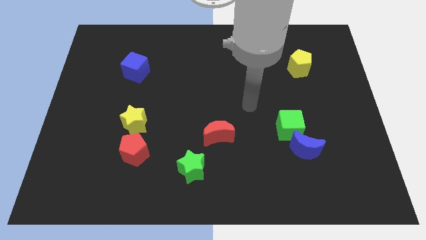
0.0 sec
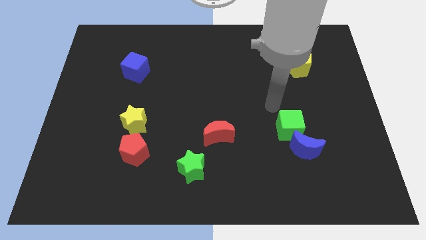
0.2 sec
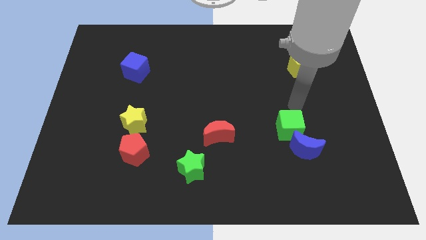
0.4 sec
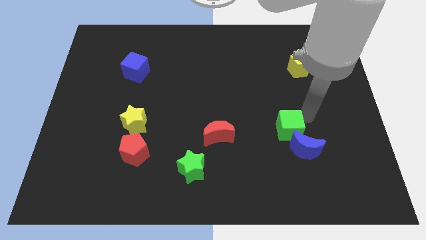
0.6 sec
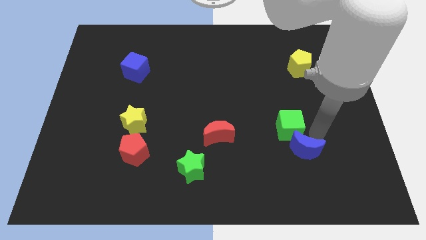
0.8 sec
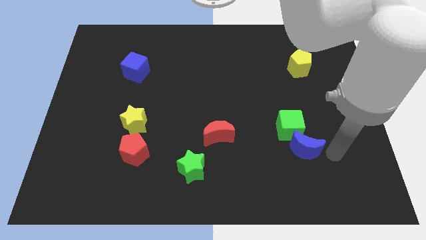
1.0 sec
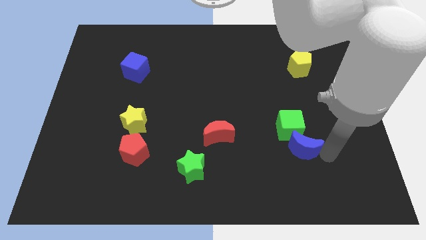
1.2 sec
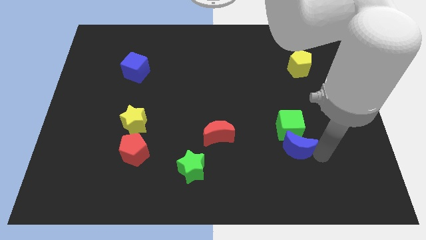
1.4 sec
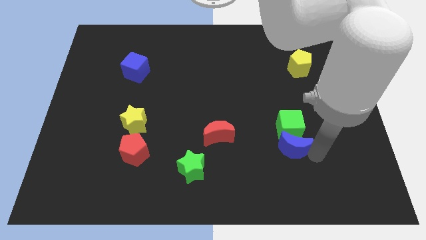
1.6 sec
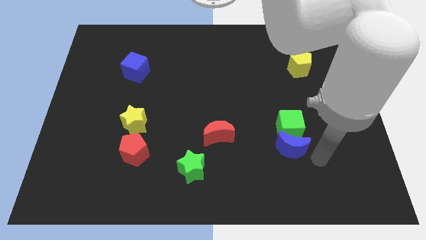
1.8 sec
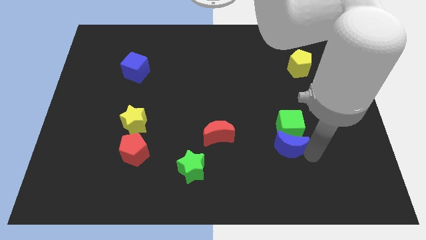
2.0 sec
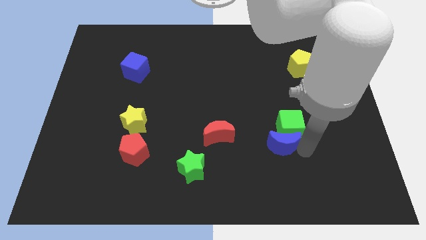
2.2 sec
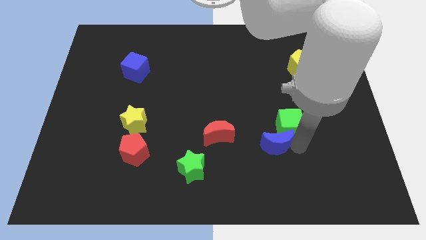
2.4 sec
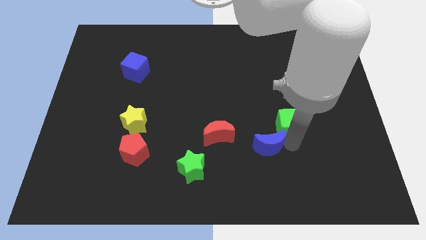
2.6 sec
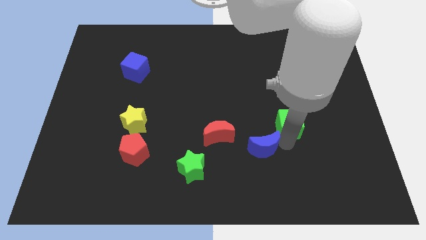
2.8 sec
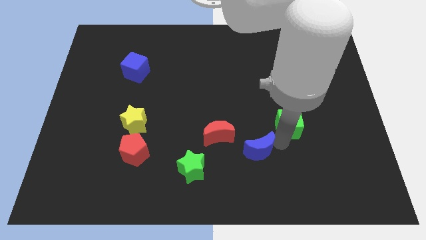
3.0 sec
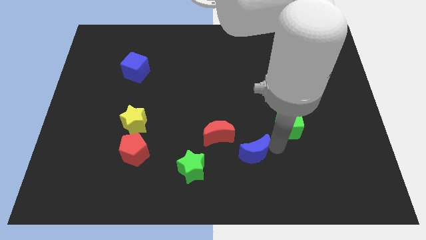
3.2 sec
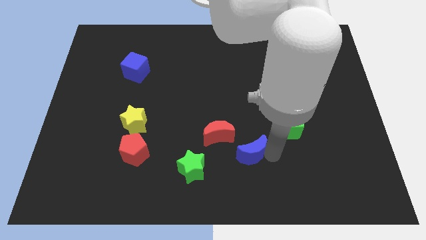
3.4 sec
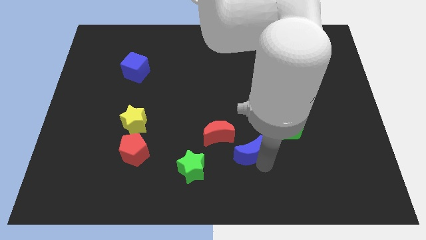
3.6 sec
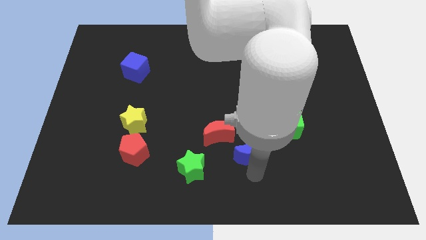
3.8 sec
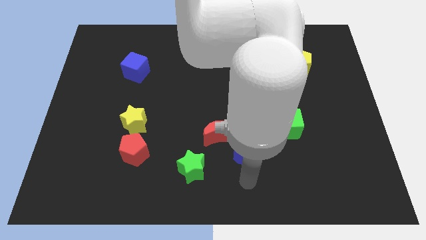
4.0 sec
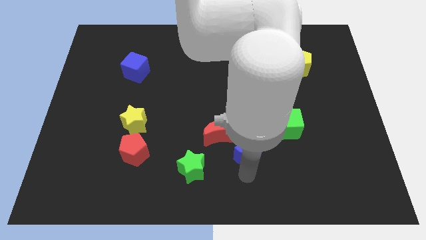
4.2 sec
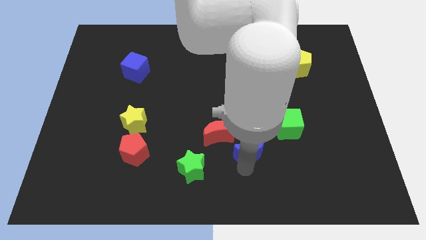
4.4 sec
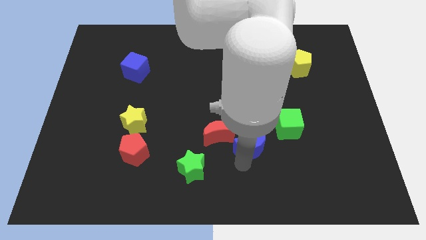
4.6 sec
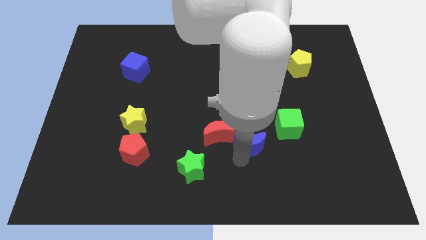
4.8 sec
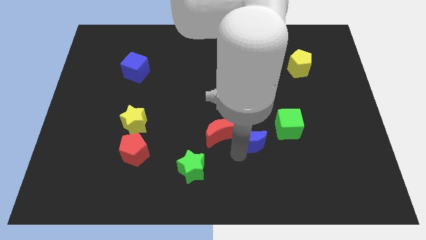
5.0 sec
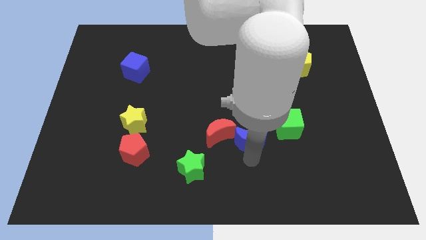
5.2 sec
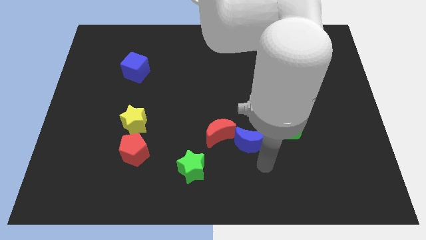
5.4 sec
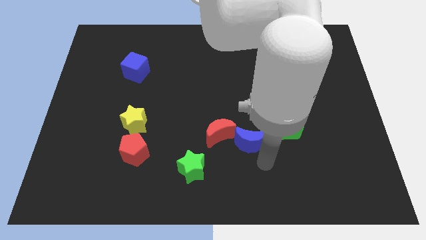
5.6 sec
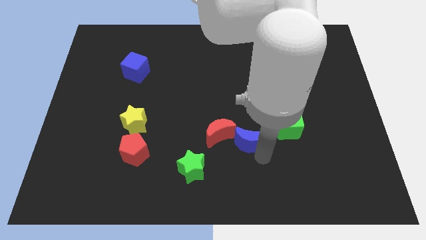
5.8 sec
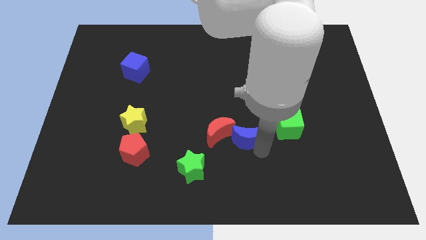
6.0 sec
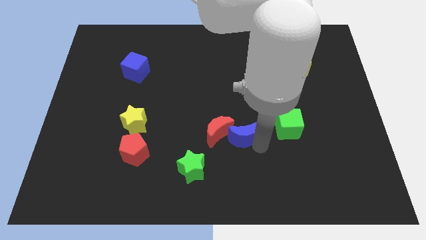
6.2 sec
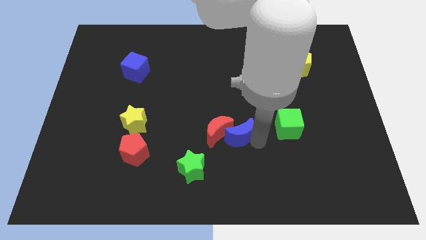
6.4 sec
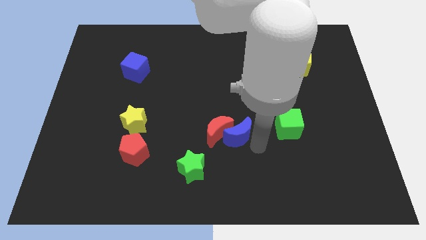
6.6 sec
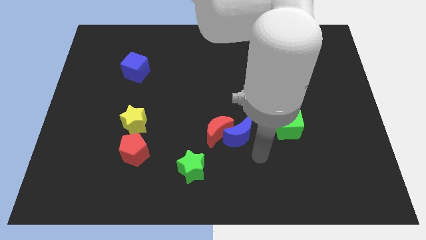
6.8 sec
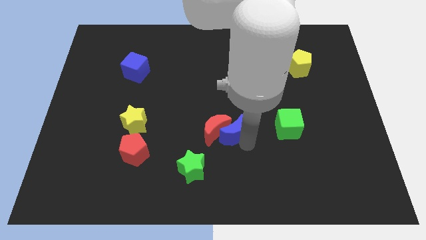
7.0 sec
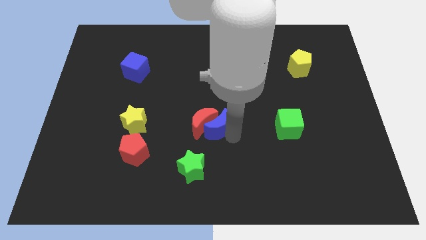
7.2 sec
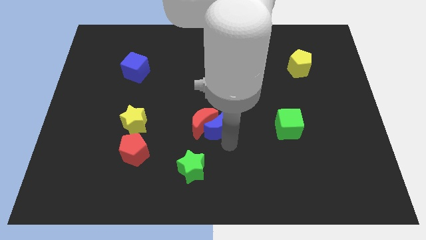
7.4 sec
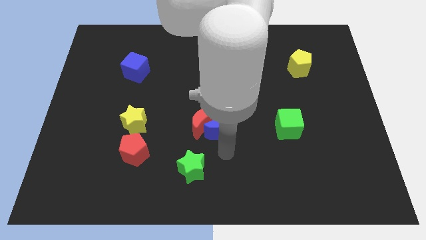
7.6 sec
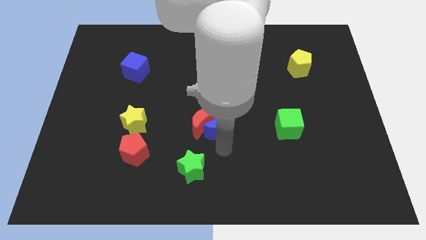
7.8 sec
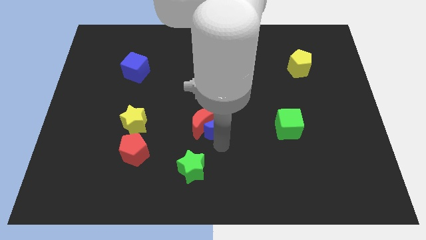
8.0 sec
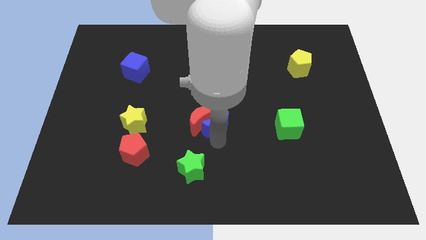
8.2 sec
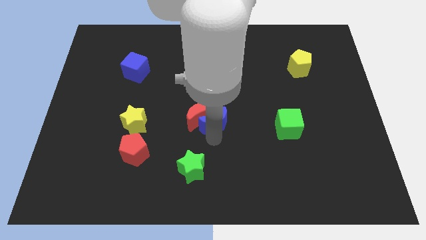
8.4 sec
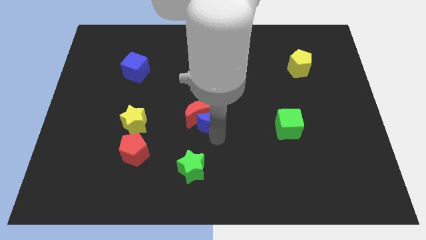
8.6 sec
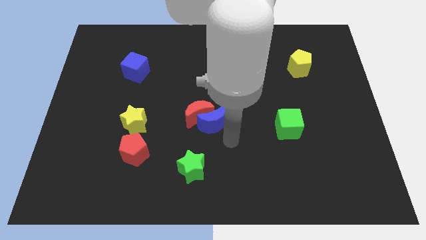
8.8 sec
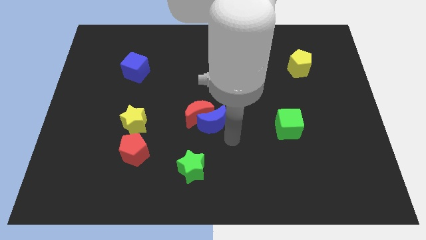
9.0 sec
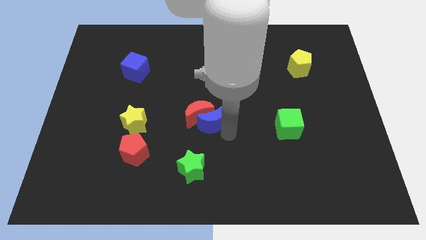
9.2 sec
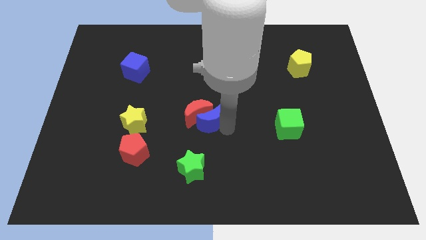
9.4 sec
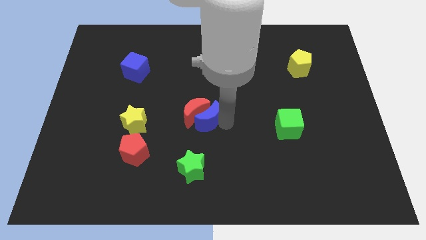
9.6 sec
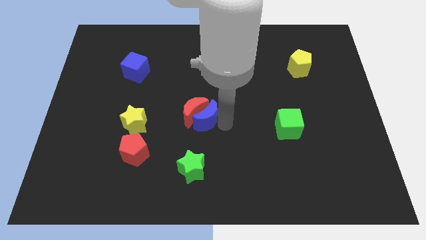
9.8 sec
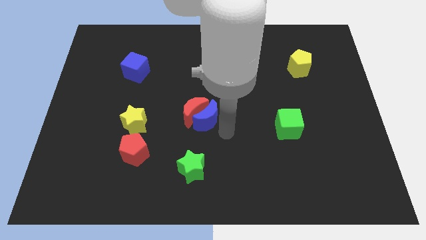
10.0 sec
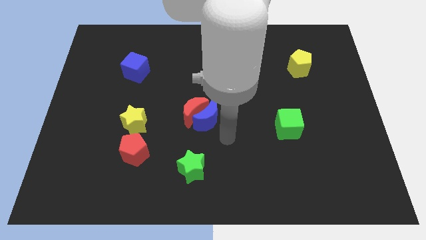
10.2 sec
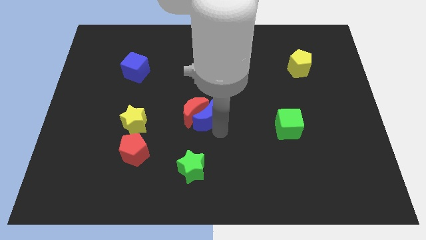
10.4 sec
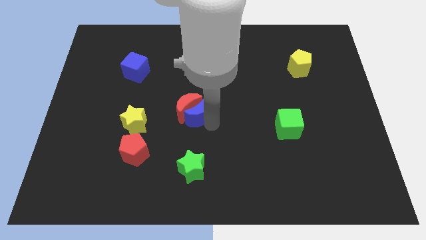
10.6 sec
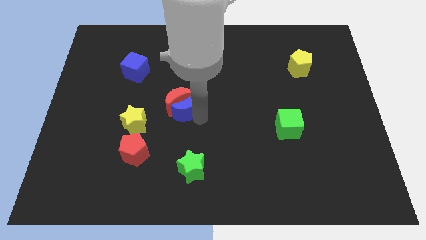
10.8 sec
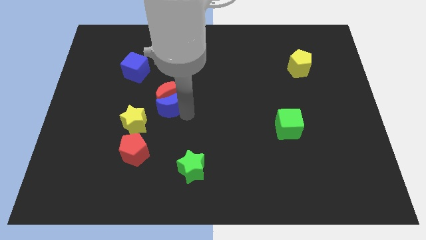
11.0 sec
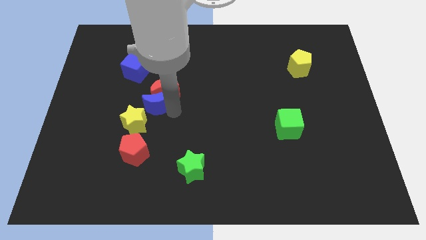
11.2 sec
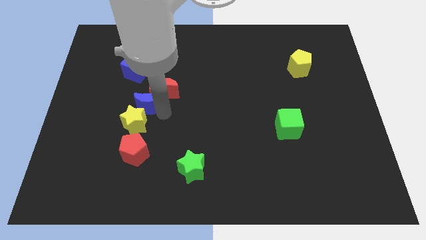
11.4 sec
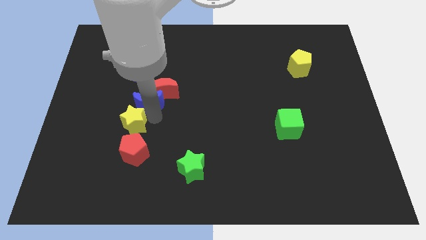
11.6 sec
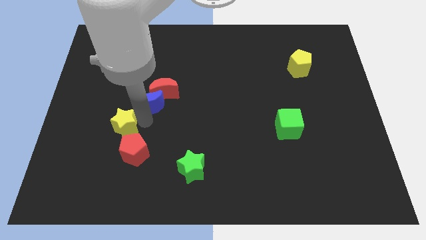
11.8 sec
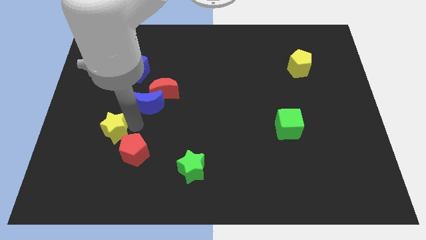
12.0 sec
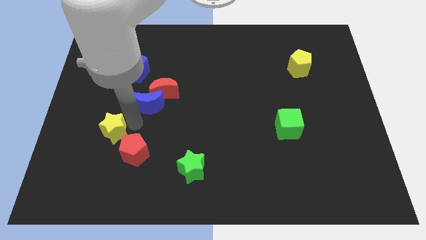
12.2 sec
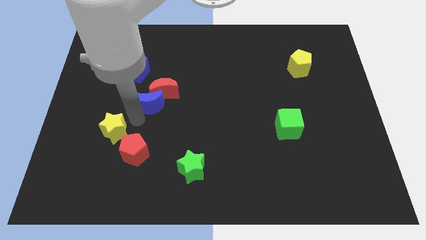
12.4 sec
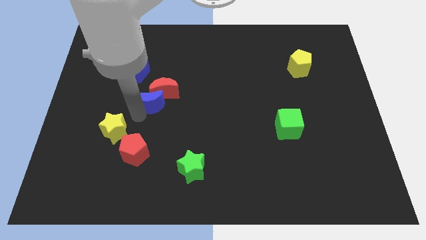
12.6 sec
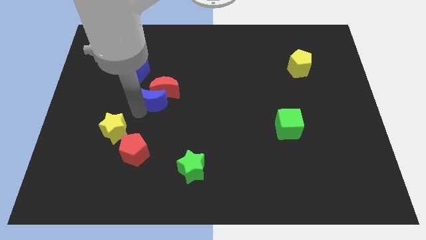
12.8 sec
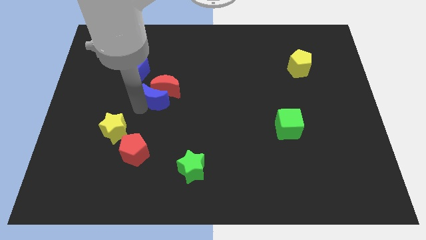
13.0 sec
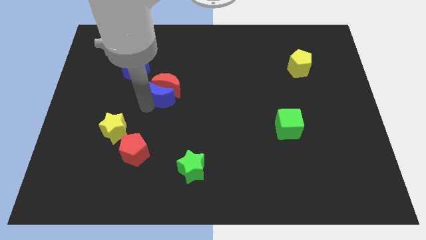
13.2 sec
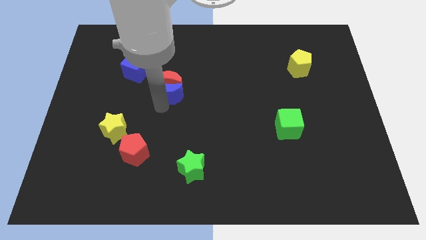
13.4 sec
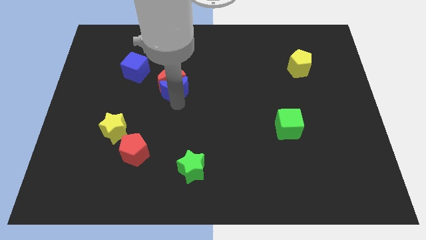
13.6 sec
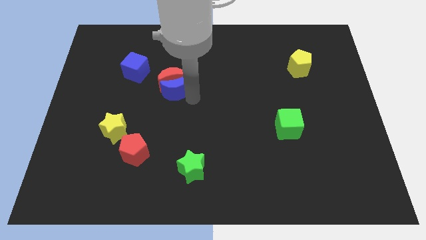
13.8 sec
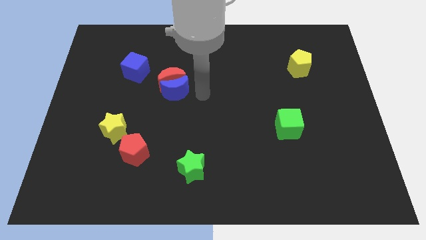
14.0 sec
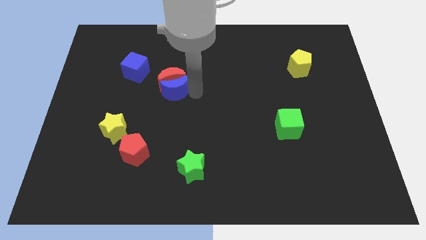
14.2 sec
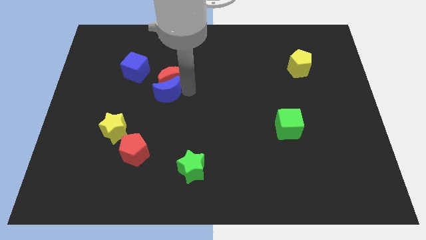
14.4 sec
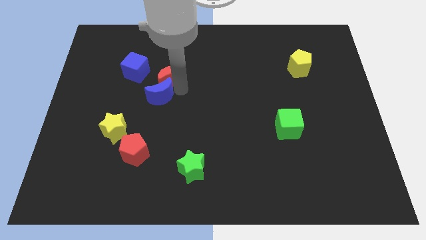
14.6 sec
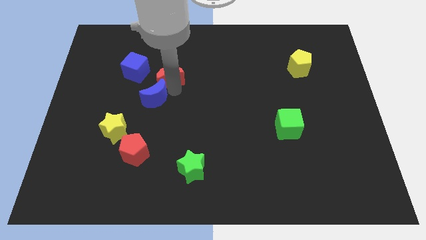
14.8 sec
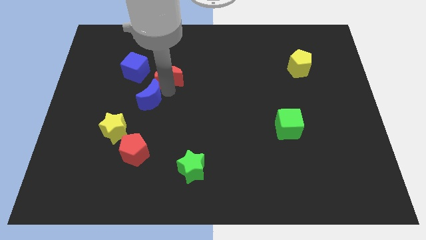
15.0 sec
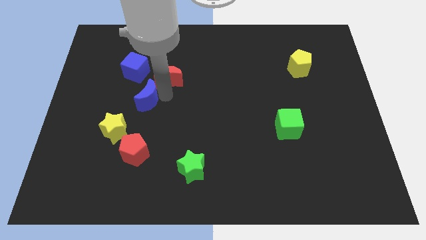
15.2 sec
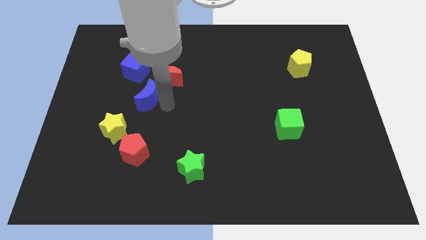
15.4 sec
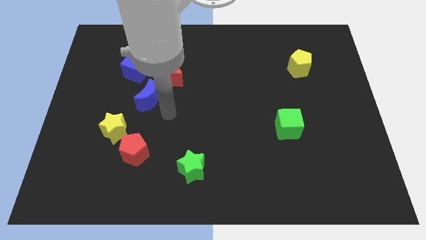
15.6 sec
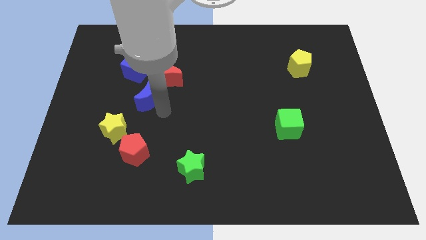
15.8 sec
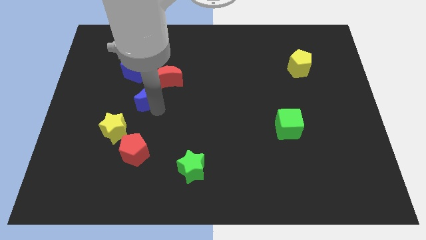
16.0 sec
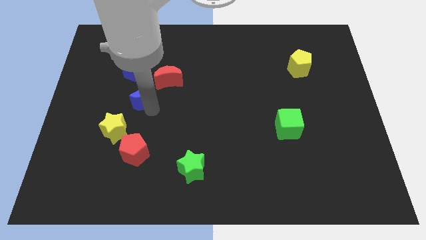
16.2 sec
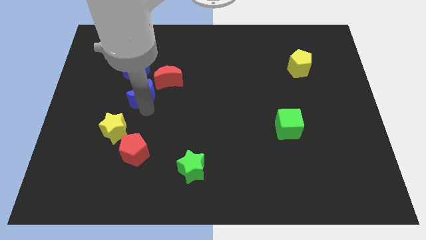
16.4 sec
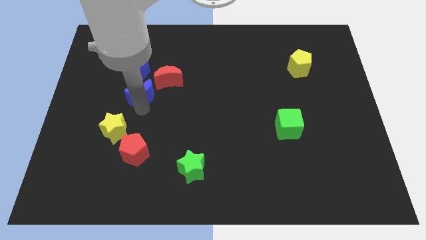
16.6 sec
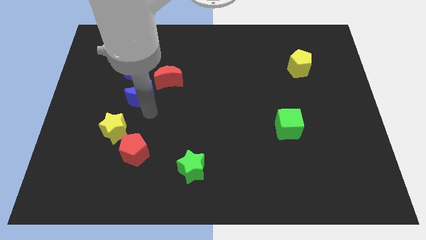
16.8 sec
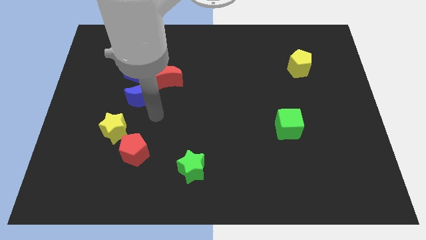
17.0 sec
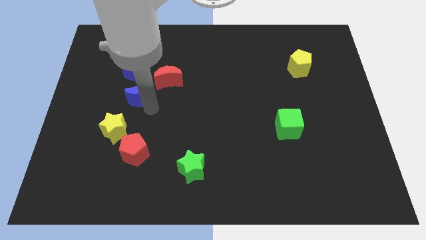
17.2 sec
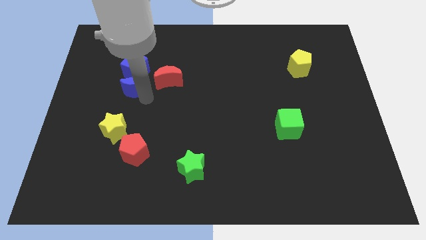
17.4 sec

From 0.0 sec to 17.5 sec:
push the blue moon to the bottom left of the blue cube
